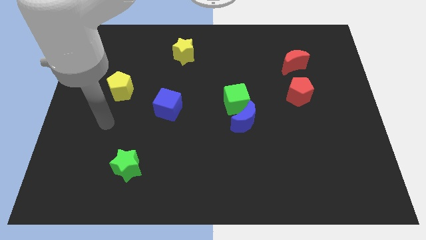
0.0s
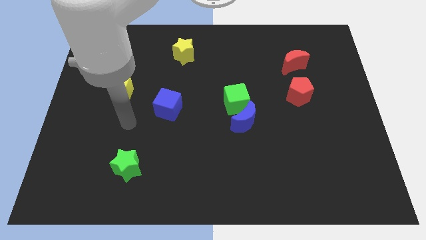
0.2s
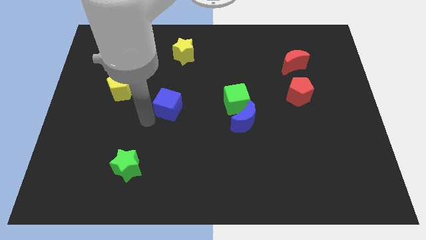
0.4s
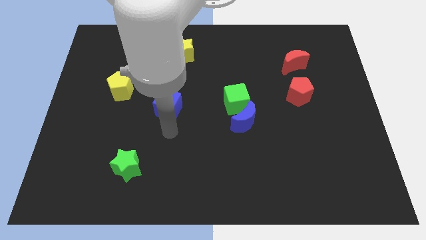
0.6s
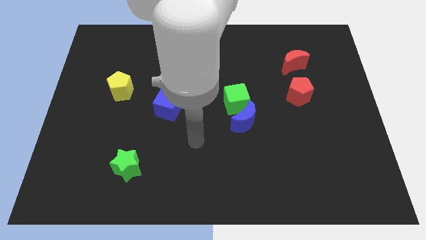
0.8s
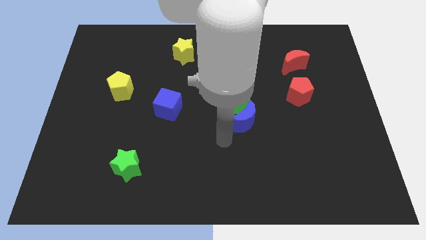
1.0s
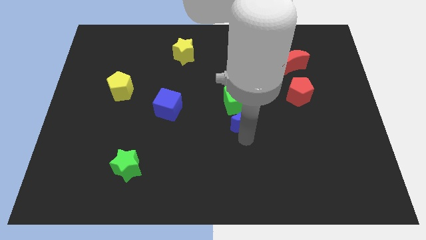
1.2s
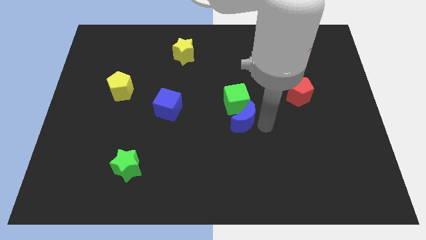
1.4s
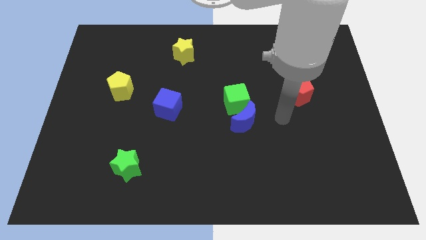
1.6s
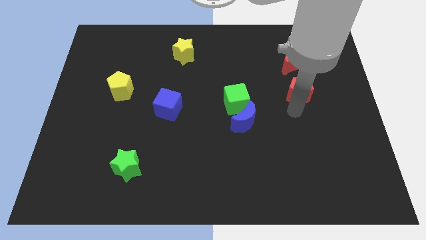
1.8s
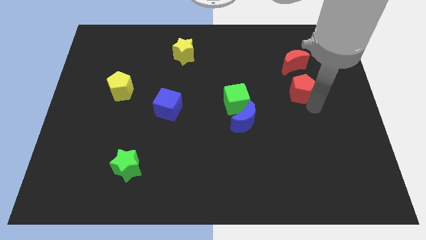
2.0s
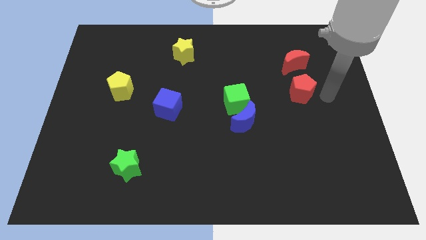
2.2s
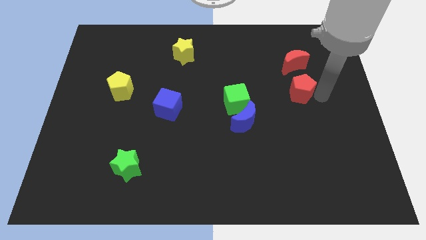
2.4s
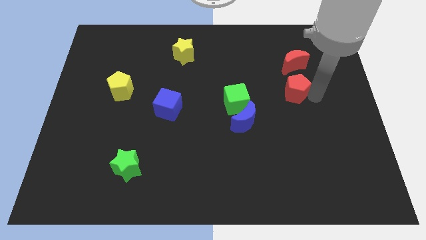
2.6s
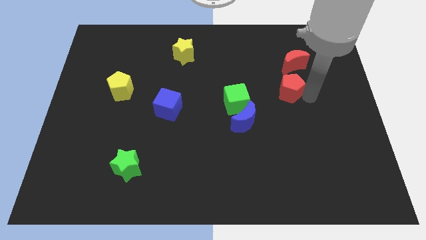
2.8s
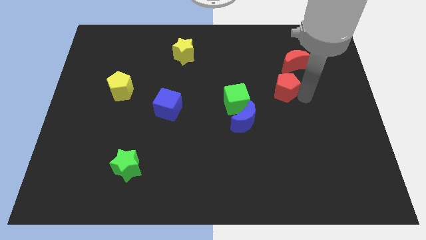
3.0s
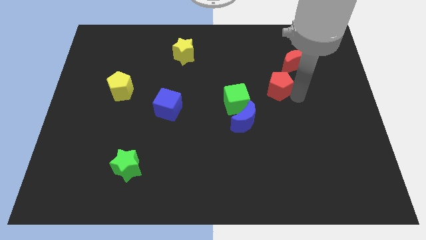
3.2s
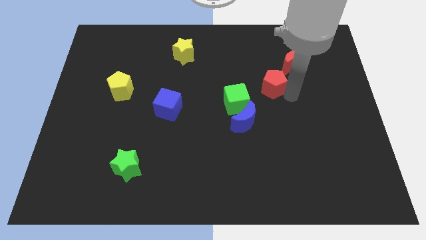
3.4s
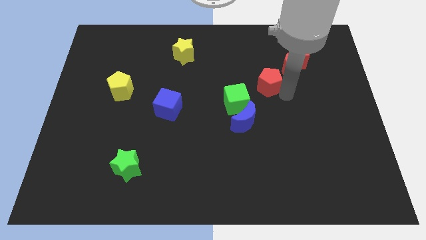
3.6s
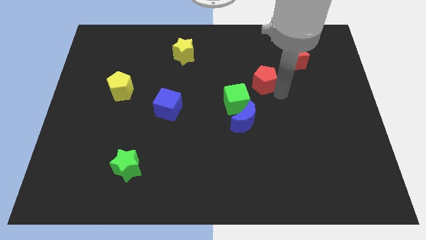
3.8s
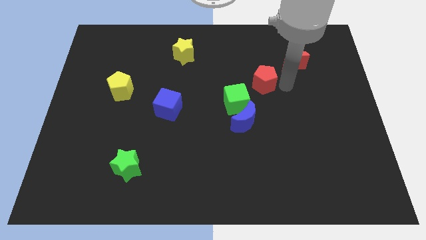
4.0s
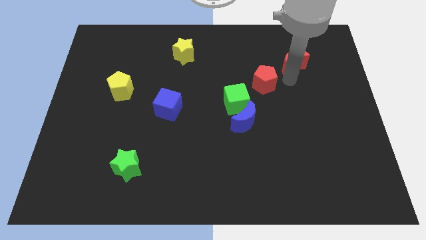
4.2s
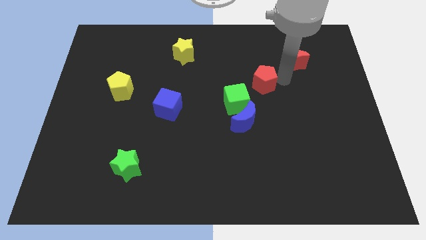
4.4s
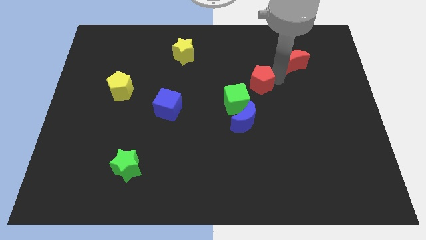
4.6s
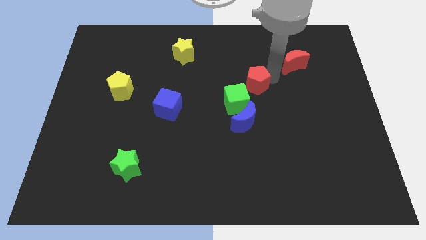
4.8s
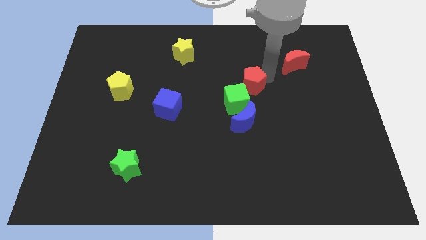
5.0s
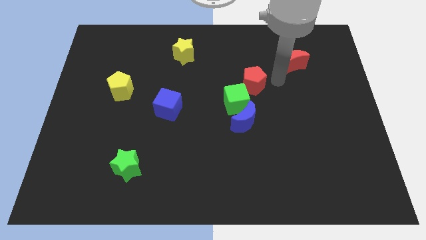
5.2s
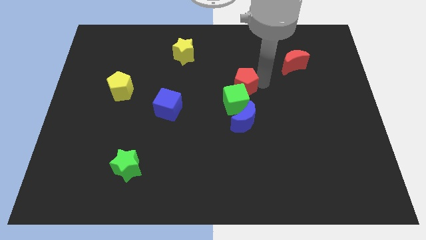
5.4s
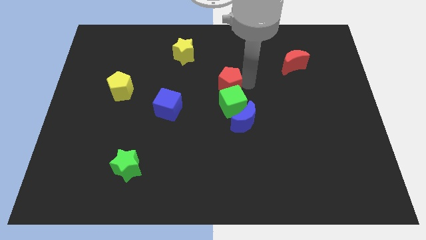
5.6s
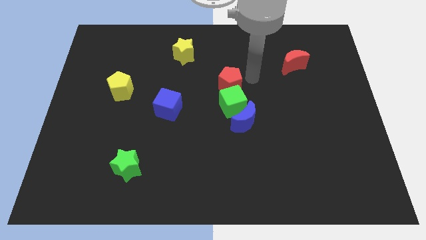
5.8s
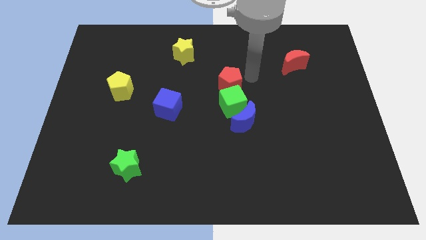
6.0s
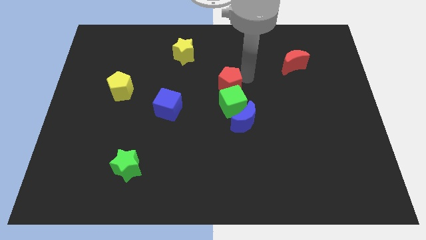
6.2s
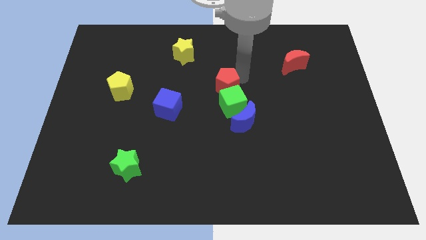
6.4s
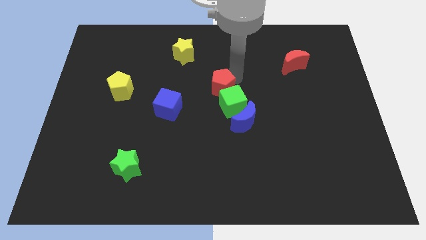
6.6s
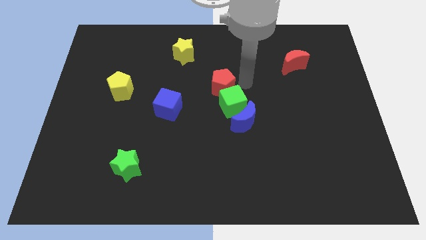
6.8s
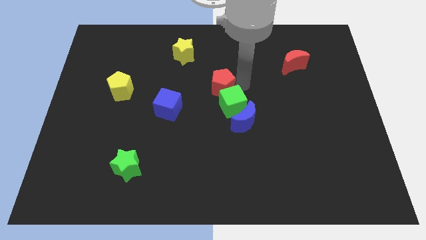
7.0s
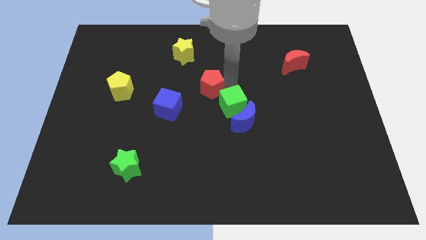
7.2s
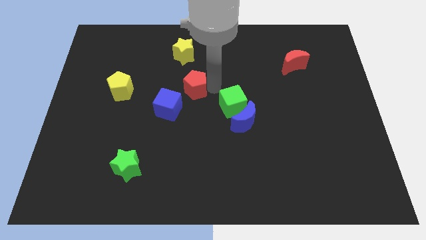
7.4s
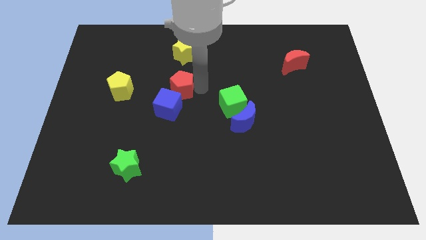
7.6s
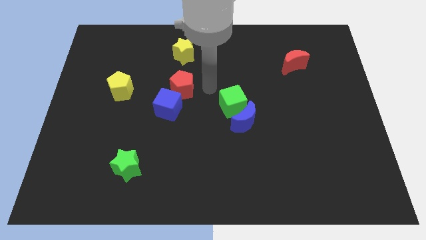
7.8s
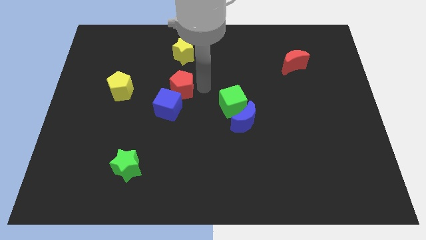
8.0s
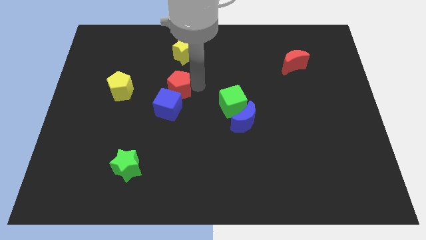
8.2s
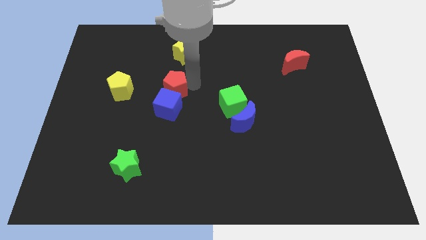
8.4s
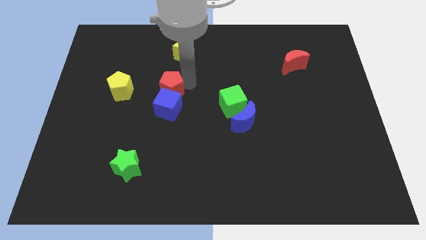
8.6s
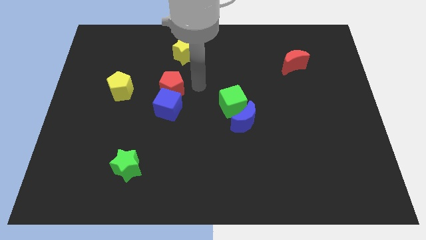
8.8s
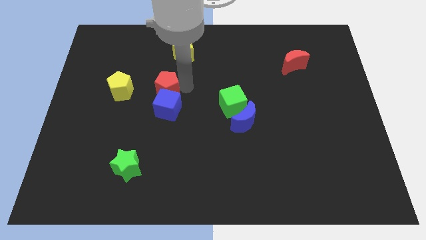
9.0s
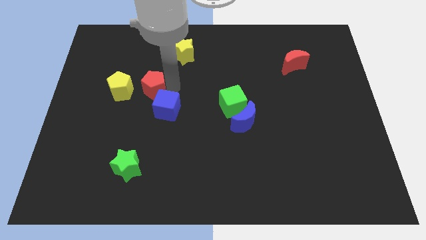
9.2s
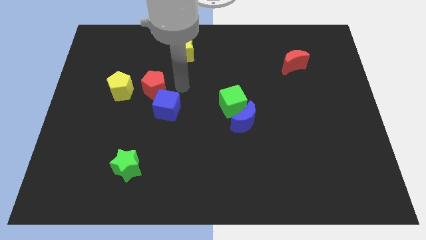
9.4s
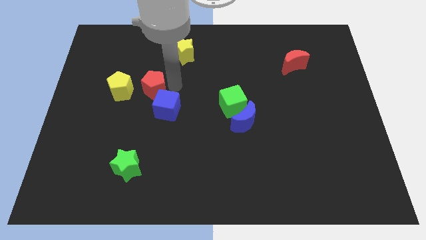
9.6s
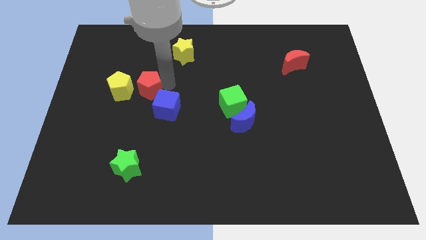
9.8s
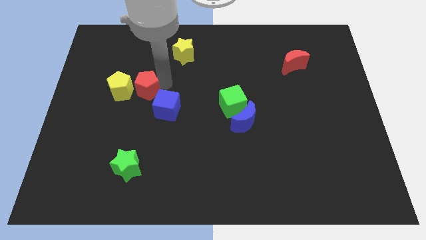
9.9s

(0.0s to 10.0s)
slide the red pentagon to the yellow pentagon

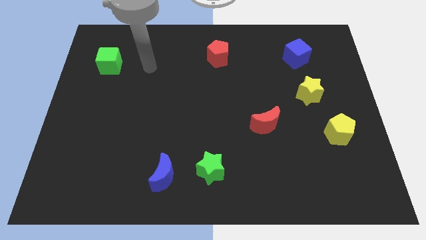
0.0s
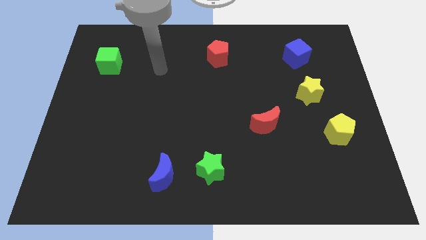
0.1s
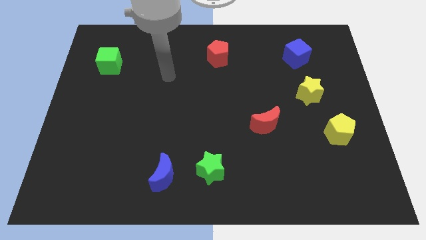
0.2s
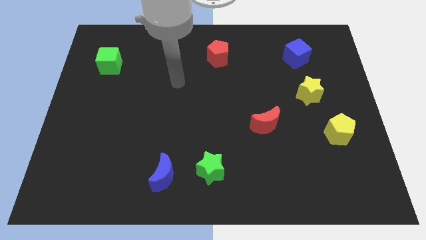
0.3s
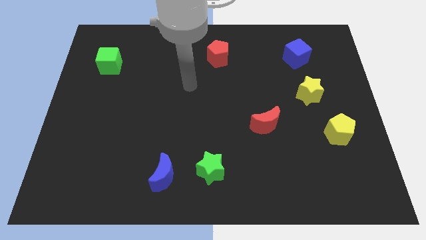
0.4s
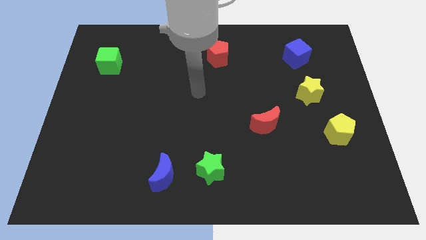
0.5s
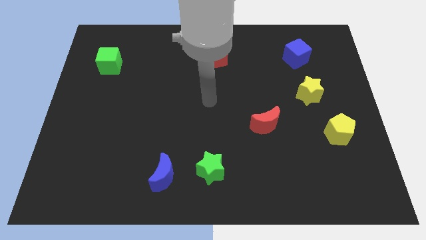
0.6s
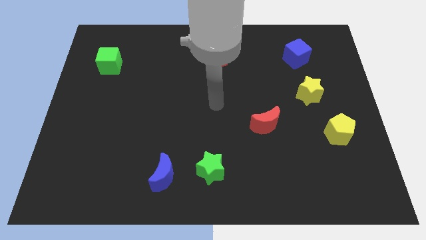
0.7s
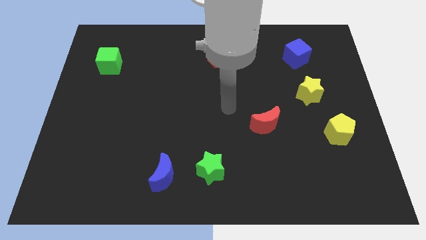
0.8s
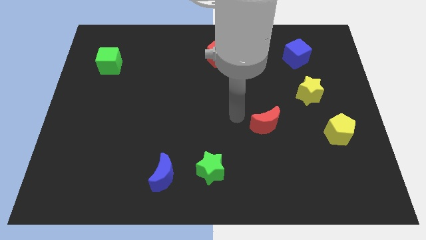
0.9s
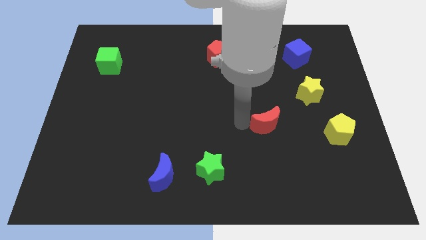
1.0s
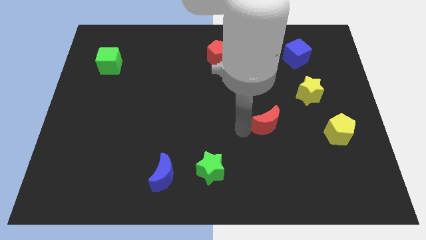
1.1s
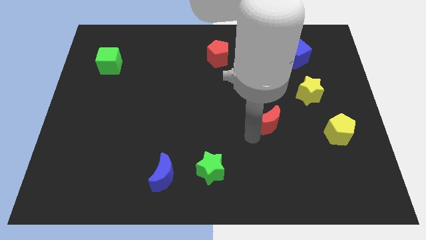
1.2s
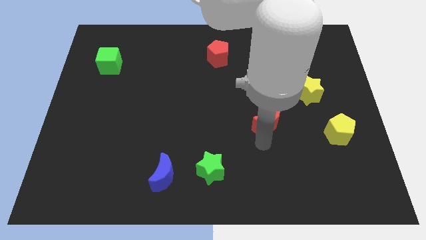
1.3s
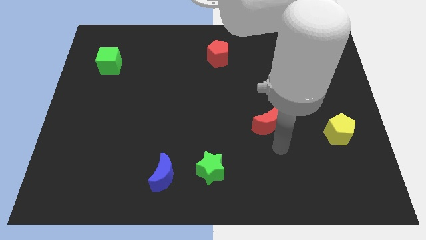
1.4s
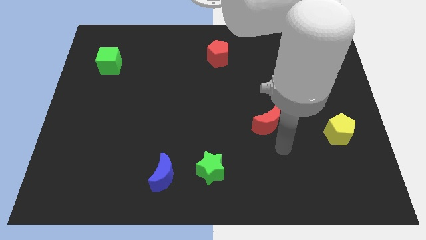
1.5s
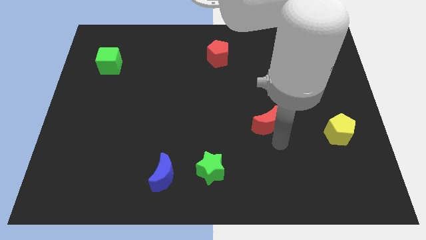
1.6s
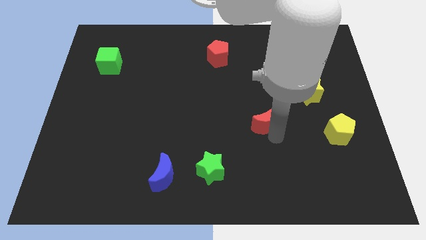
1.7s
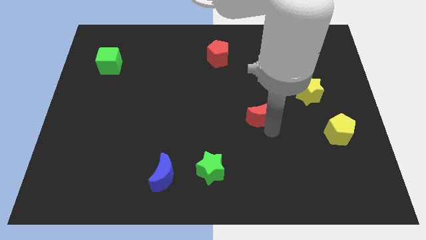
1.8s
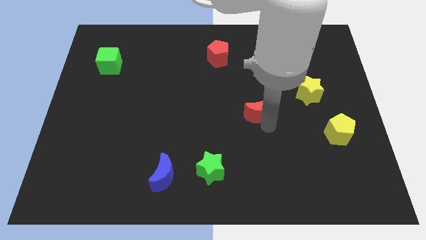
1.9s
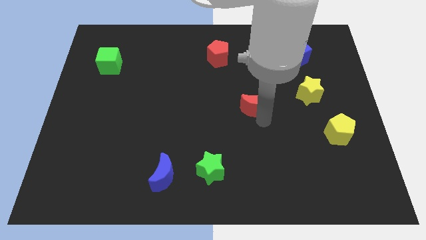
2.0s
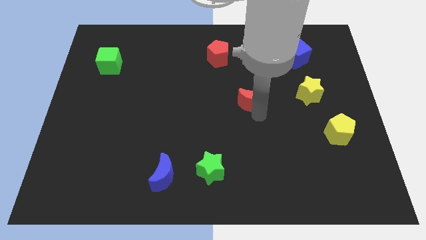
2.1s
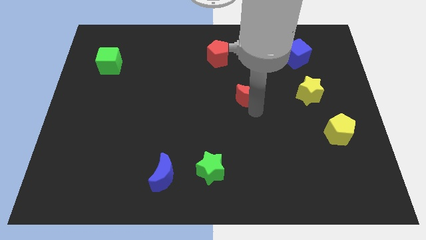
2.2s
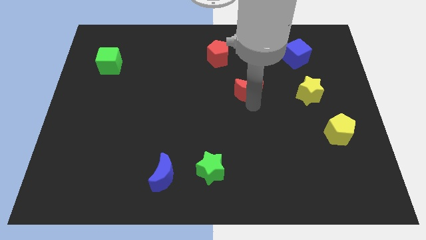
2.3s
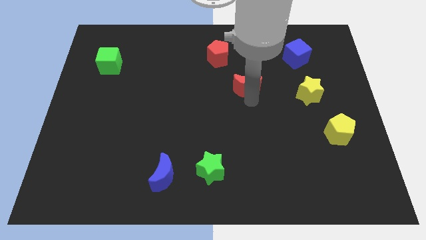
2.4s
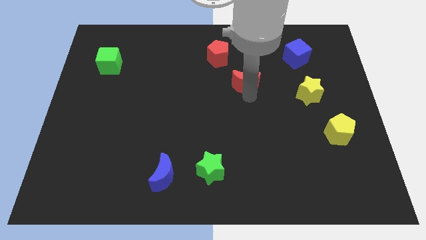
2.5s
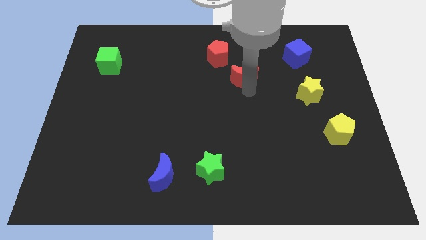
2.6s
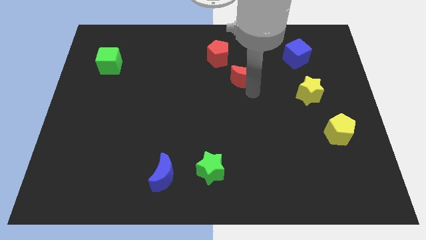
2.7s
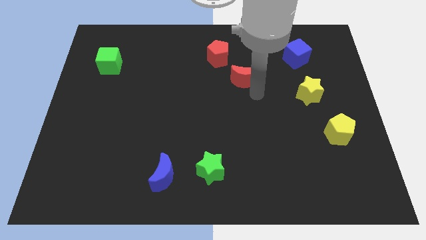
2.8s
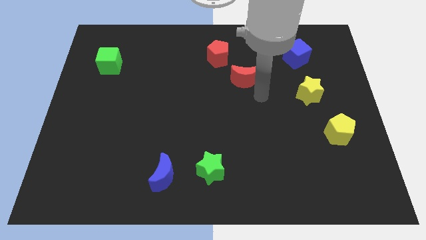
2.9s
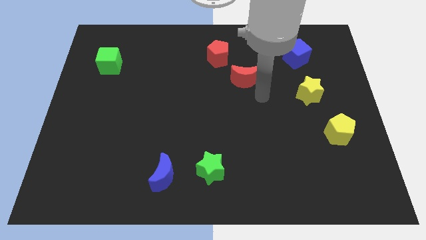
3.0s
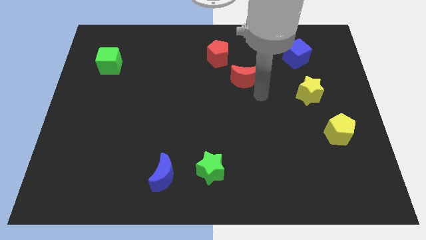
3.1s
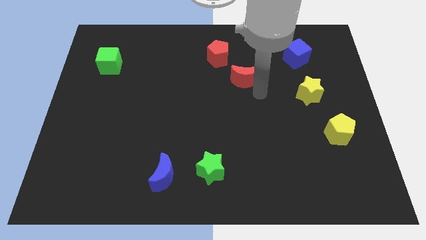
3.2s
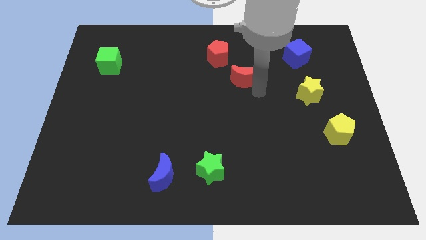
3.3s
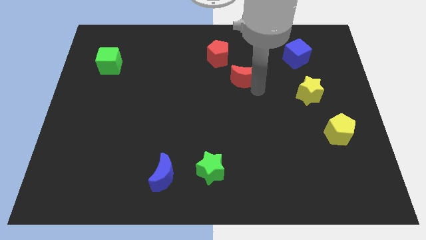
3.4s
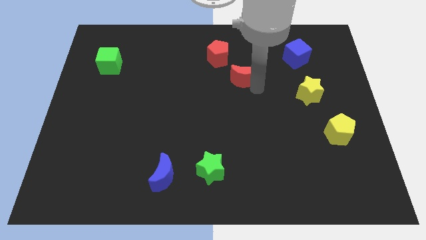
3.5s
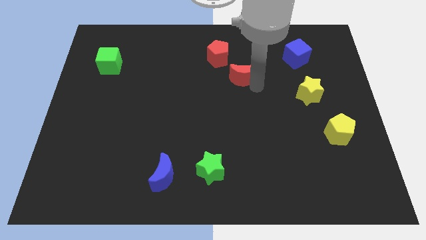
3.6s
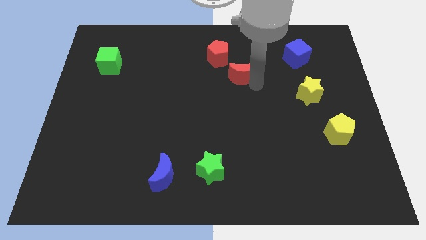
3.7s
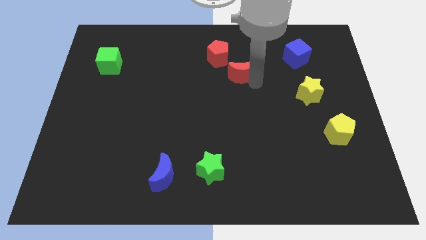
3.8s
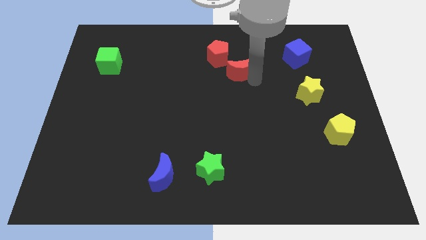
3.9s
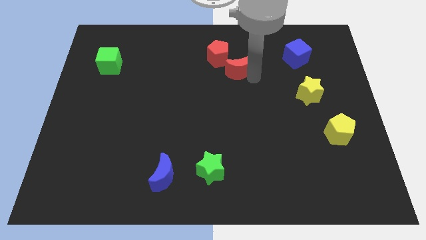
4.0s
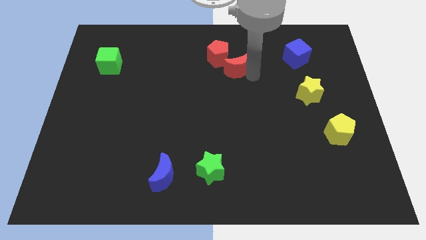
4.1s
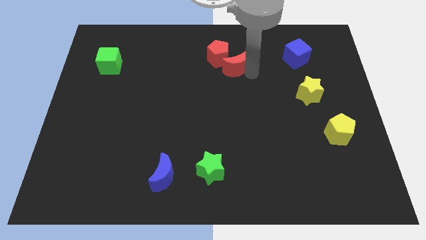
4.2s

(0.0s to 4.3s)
slide the red moon to the red pentagon
